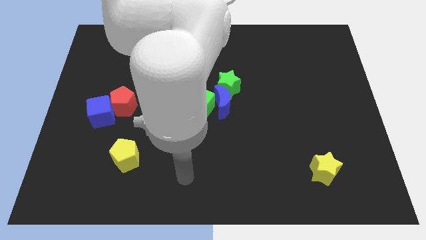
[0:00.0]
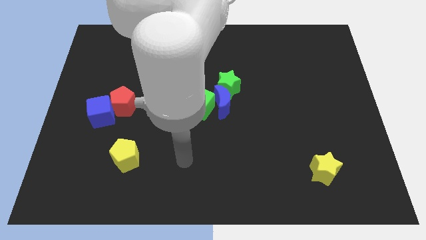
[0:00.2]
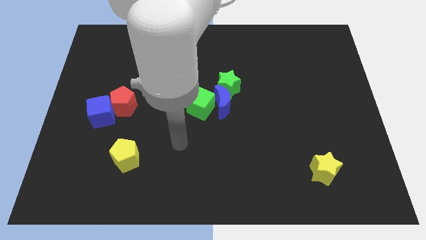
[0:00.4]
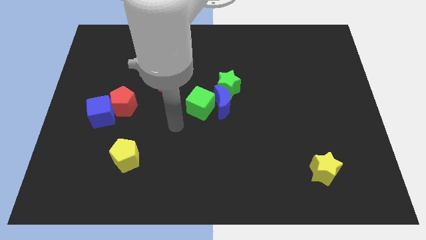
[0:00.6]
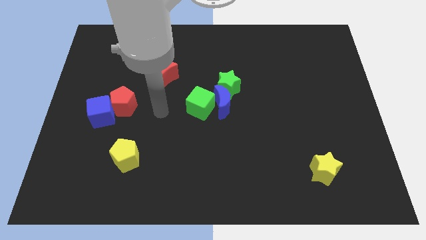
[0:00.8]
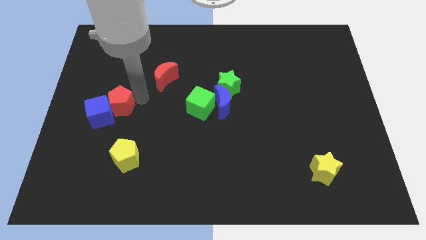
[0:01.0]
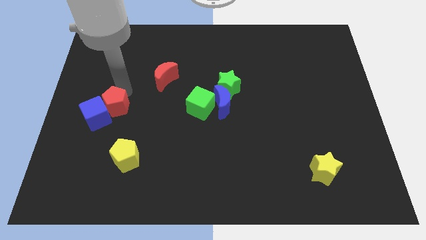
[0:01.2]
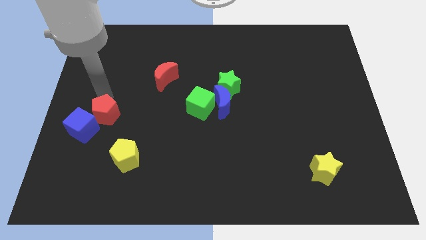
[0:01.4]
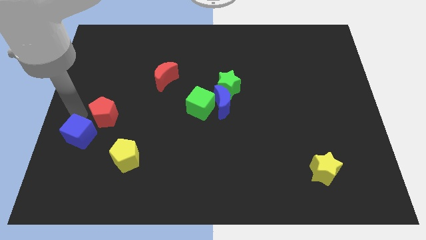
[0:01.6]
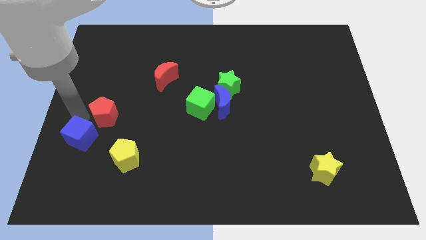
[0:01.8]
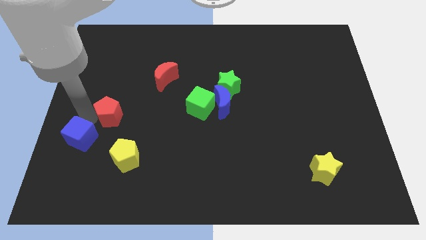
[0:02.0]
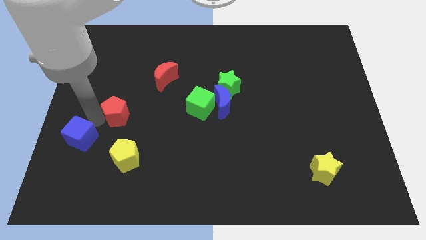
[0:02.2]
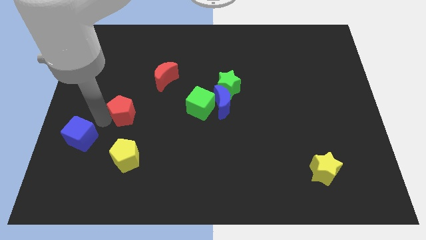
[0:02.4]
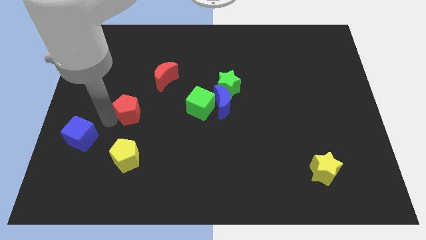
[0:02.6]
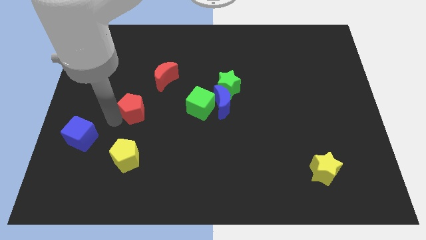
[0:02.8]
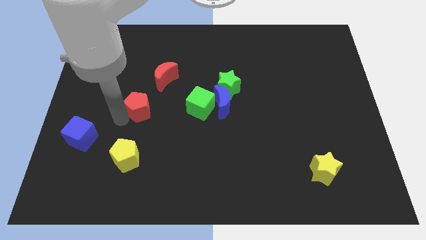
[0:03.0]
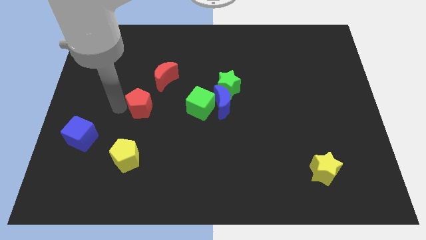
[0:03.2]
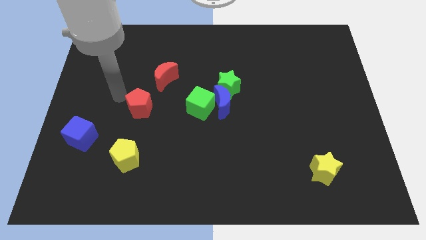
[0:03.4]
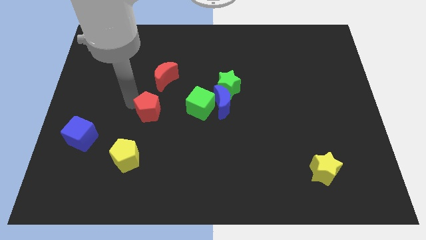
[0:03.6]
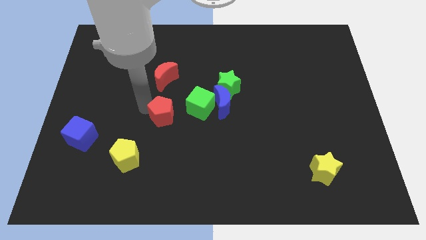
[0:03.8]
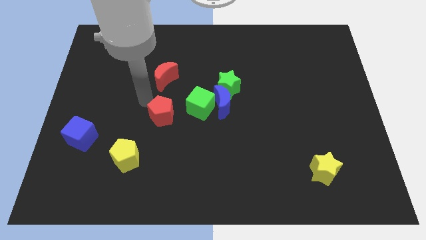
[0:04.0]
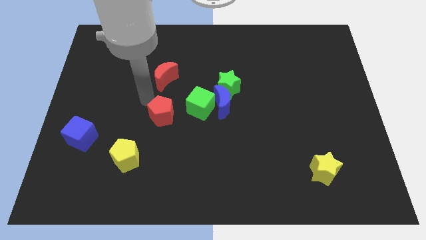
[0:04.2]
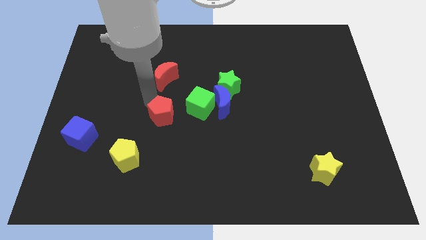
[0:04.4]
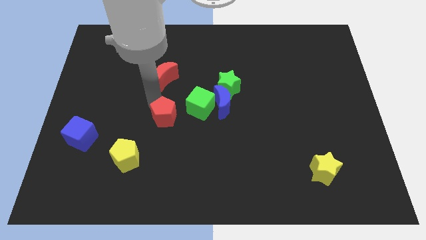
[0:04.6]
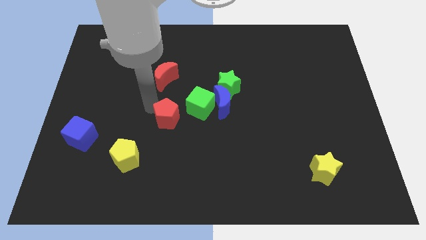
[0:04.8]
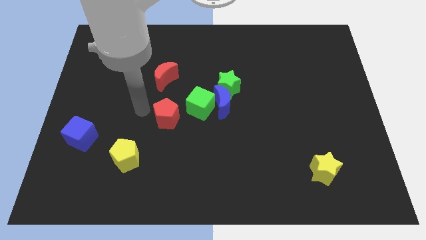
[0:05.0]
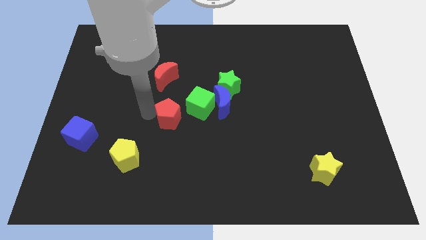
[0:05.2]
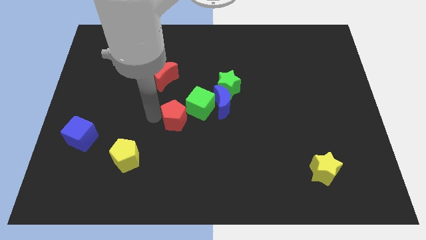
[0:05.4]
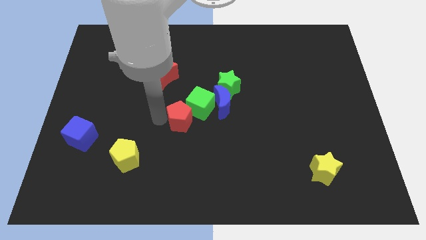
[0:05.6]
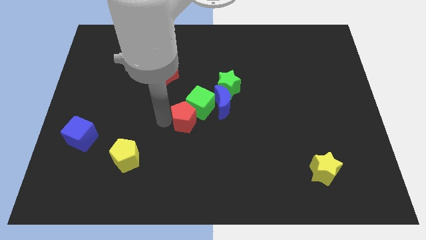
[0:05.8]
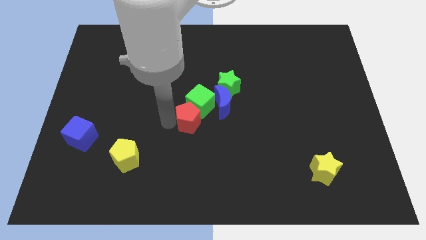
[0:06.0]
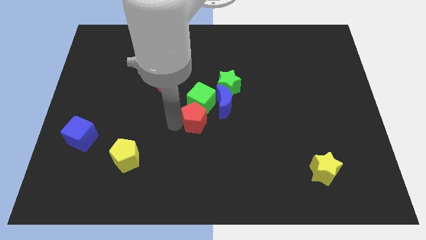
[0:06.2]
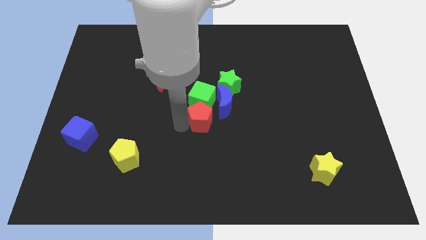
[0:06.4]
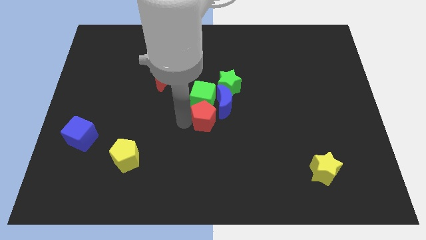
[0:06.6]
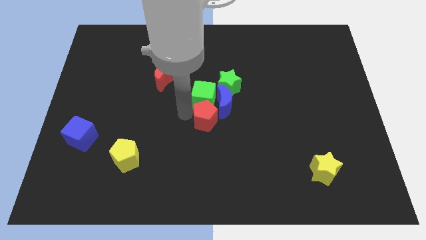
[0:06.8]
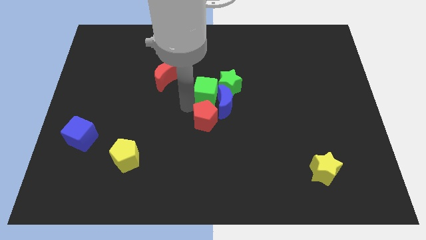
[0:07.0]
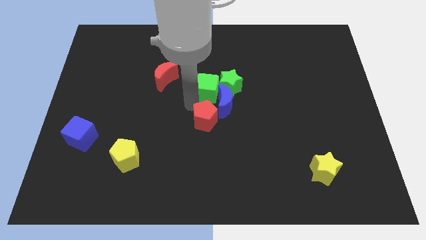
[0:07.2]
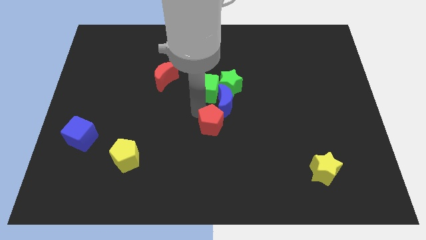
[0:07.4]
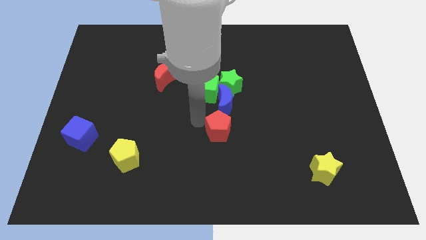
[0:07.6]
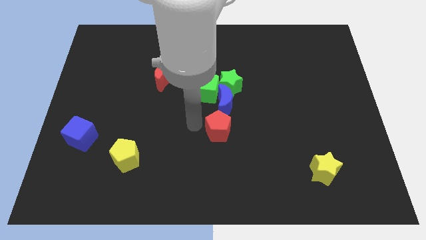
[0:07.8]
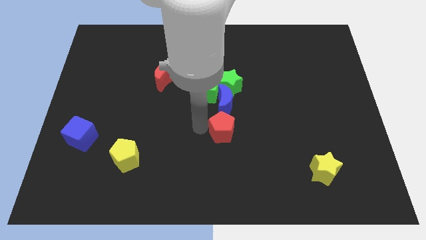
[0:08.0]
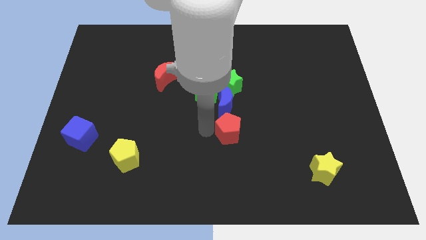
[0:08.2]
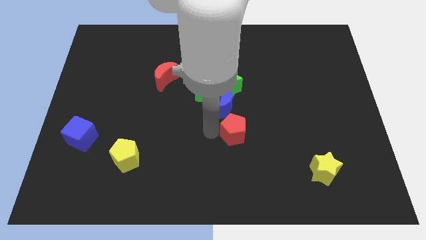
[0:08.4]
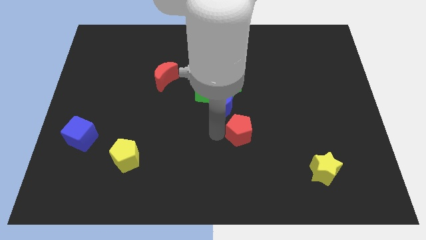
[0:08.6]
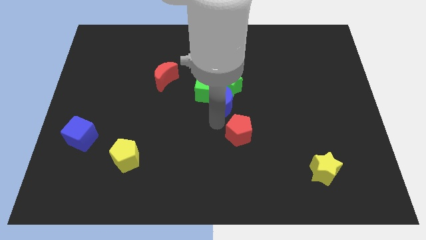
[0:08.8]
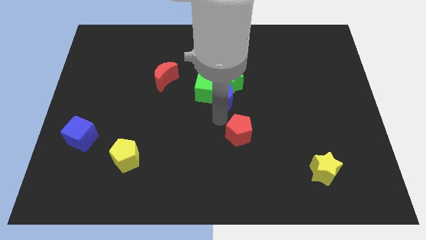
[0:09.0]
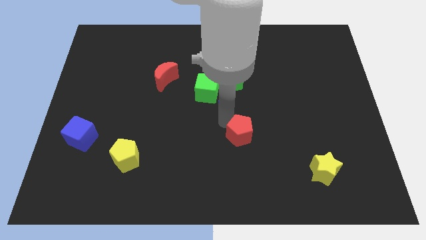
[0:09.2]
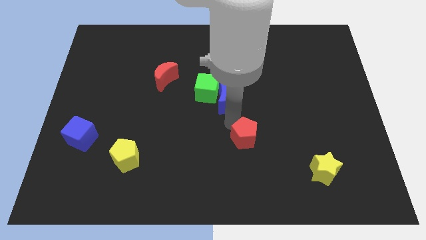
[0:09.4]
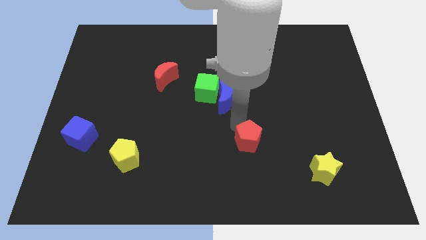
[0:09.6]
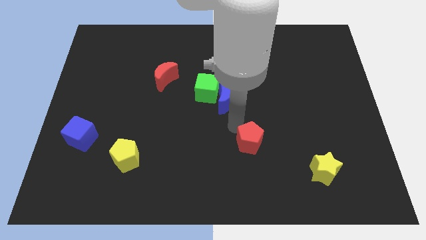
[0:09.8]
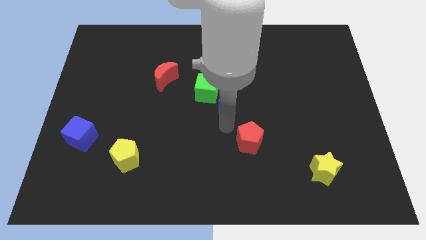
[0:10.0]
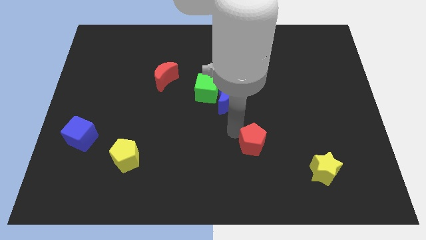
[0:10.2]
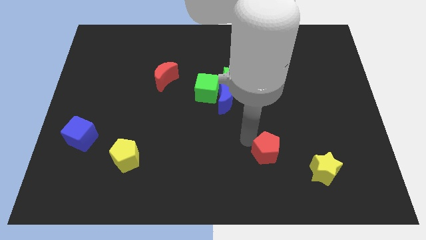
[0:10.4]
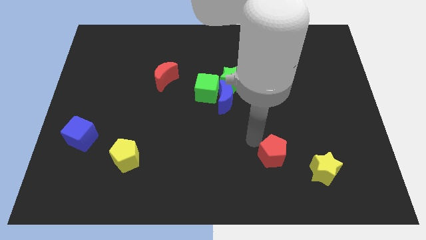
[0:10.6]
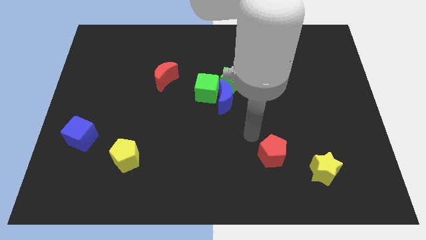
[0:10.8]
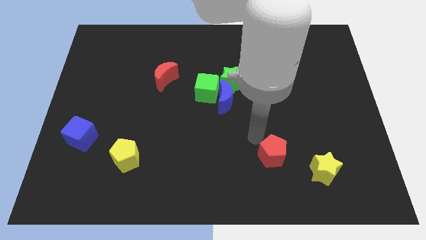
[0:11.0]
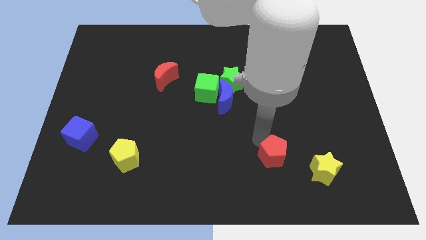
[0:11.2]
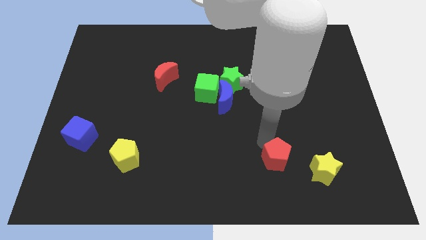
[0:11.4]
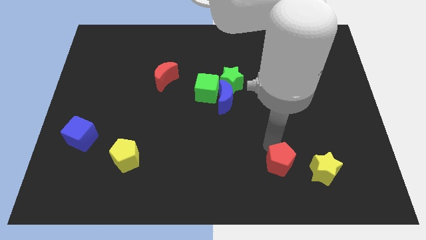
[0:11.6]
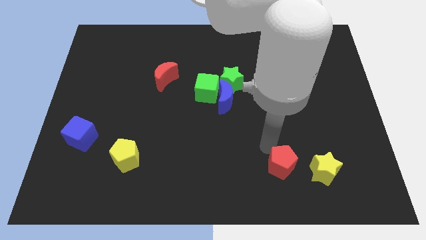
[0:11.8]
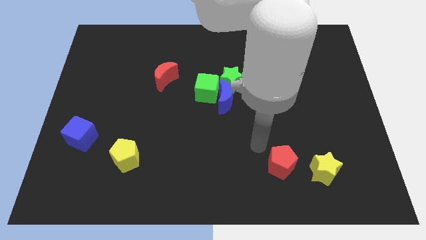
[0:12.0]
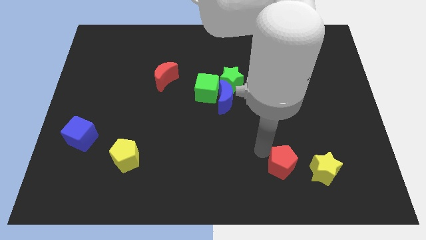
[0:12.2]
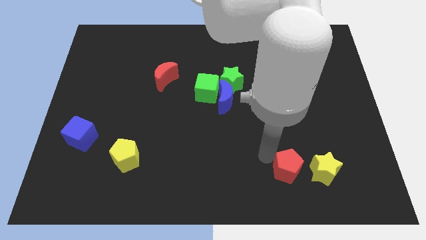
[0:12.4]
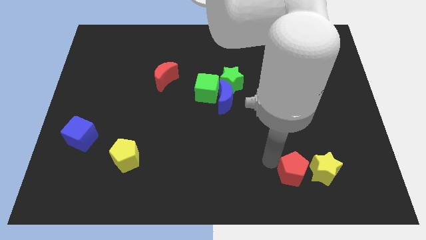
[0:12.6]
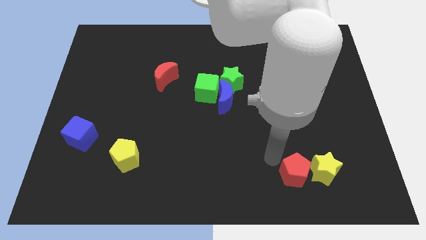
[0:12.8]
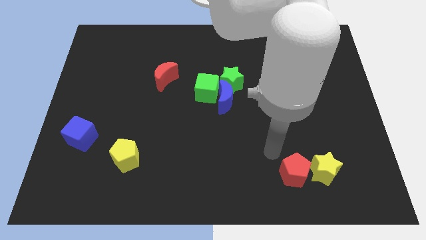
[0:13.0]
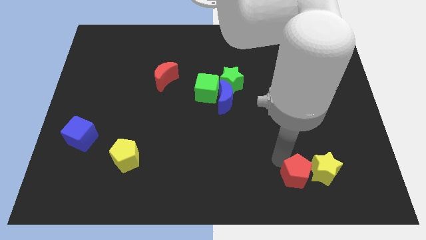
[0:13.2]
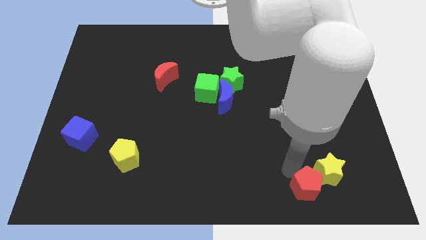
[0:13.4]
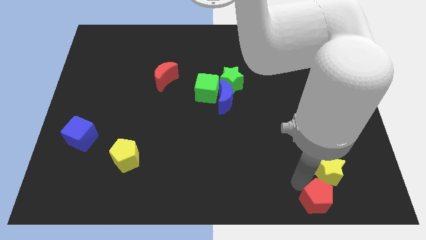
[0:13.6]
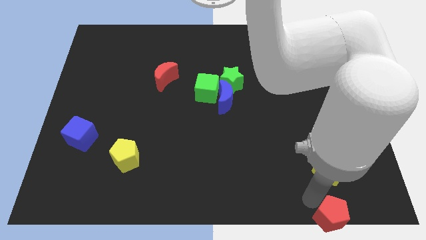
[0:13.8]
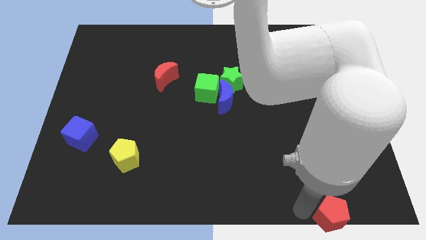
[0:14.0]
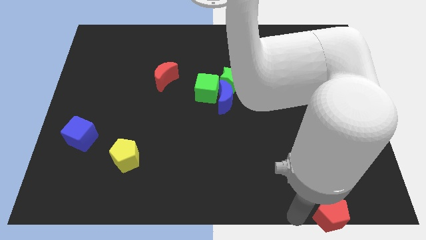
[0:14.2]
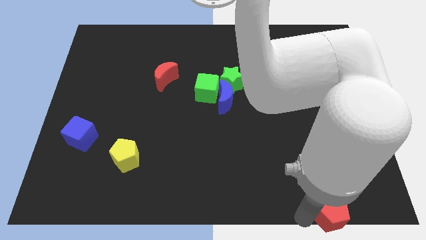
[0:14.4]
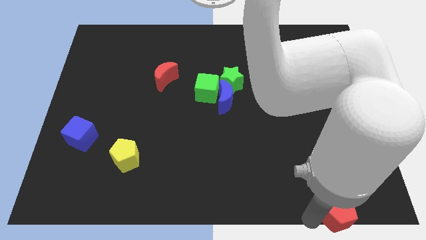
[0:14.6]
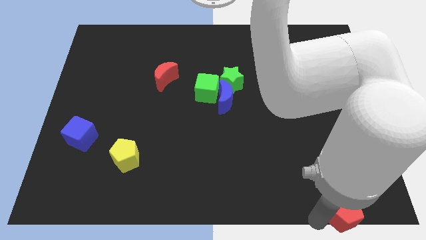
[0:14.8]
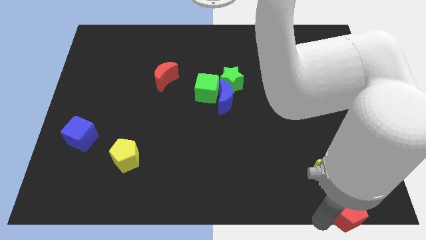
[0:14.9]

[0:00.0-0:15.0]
put the red pentagon to the bottom right of the board

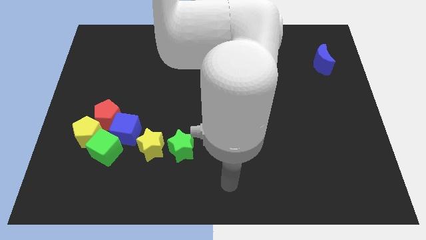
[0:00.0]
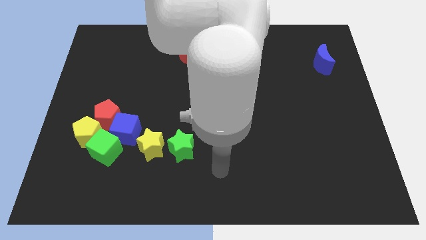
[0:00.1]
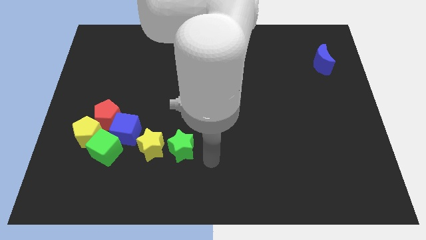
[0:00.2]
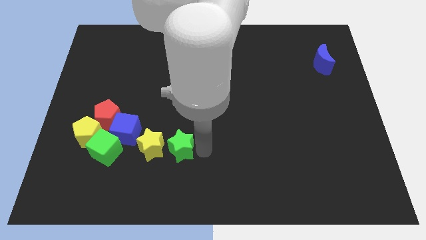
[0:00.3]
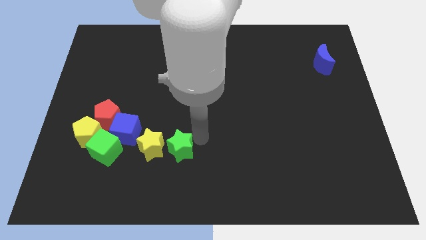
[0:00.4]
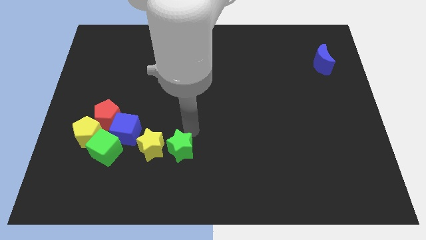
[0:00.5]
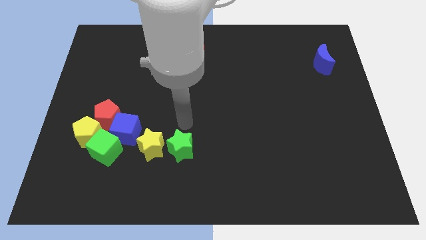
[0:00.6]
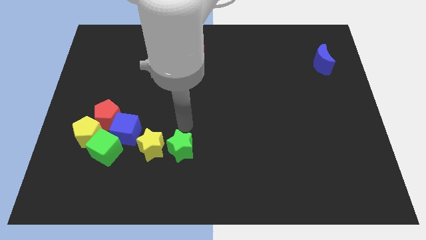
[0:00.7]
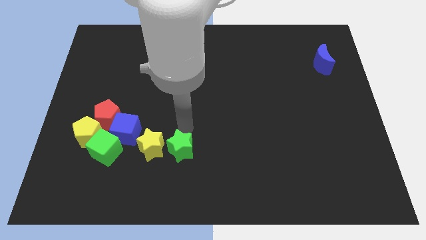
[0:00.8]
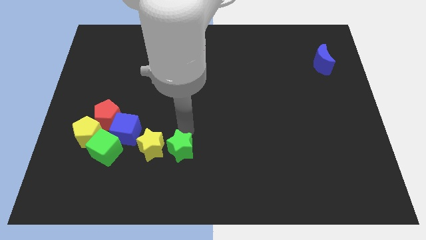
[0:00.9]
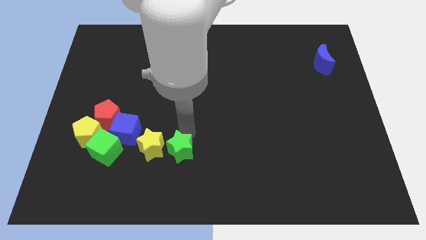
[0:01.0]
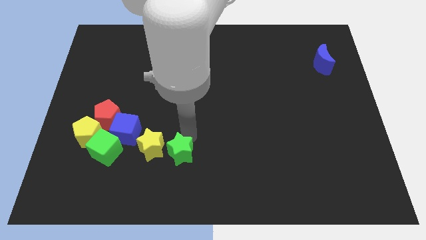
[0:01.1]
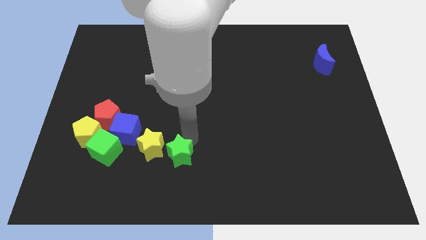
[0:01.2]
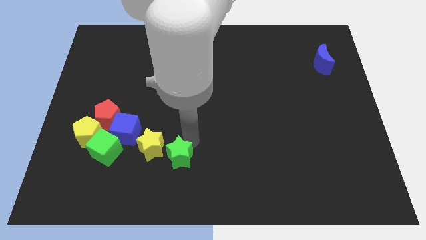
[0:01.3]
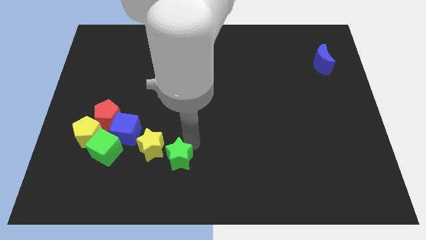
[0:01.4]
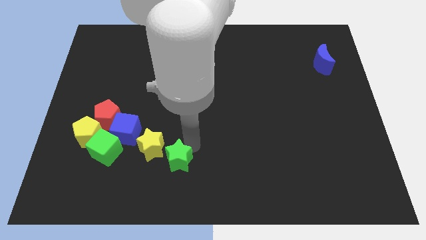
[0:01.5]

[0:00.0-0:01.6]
push the green star to the bottom side
